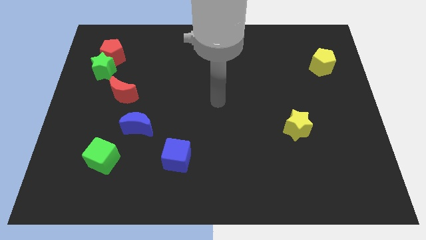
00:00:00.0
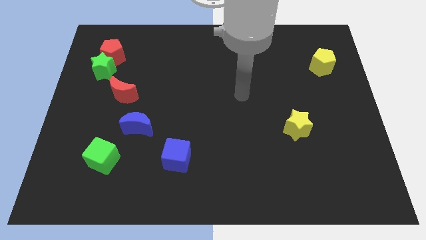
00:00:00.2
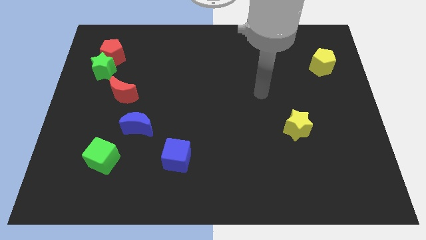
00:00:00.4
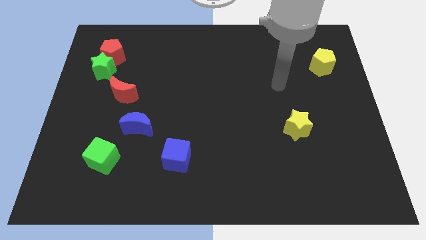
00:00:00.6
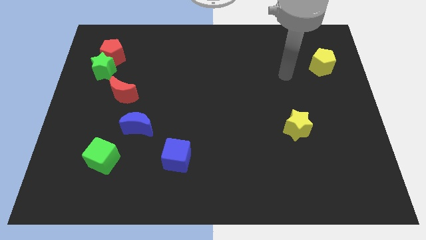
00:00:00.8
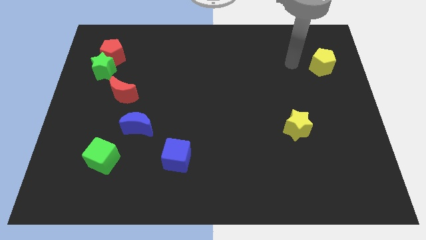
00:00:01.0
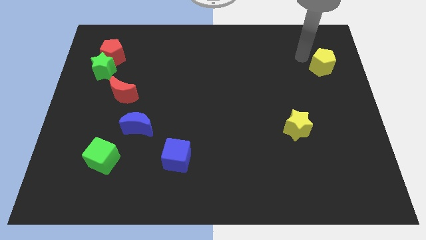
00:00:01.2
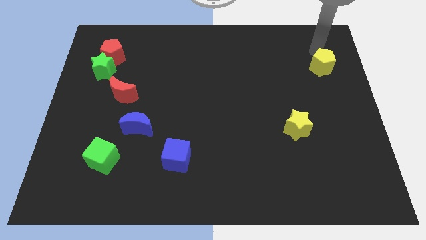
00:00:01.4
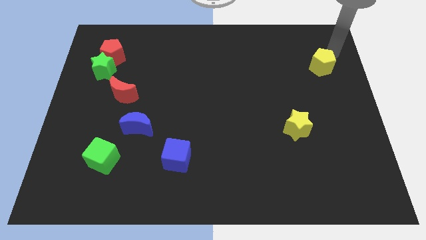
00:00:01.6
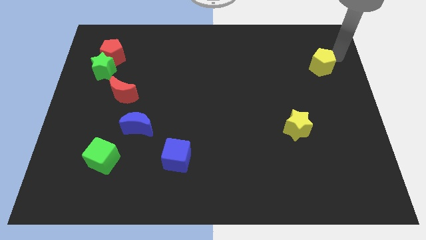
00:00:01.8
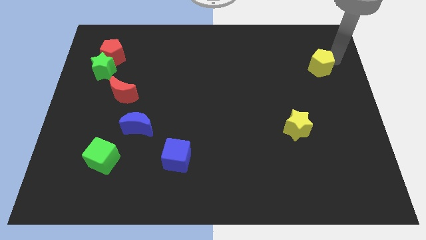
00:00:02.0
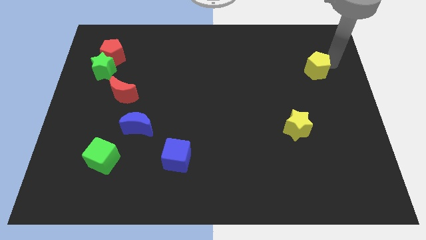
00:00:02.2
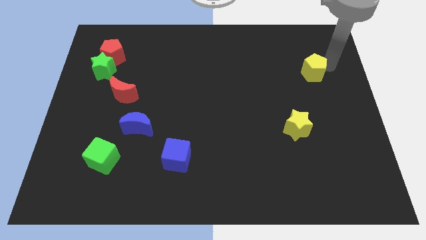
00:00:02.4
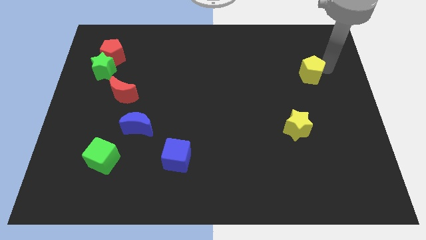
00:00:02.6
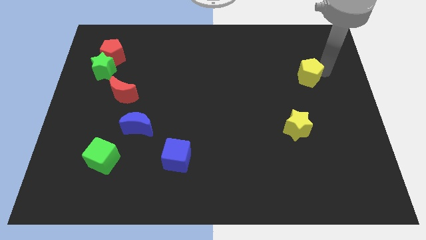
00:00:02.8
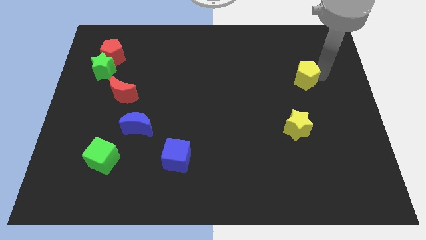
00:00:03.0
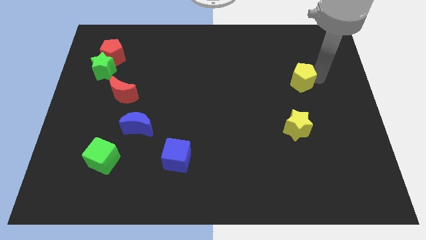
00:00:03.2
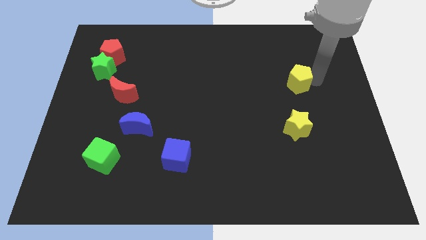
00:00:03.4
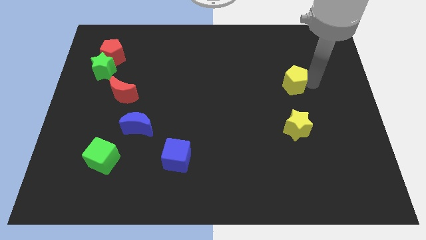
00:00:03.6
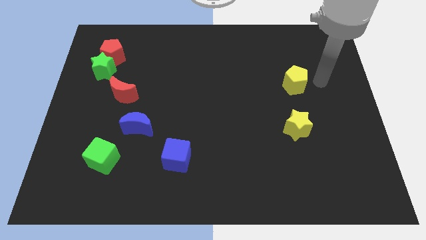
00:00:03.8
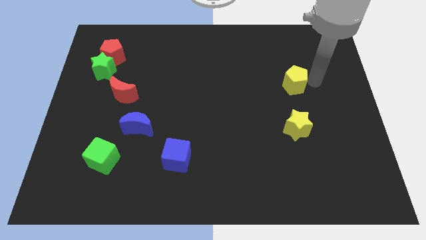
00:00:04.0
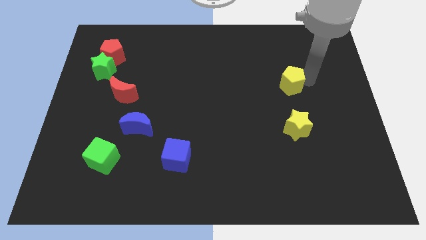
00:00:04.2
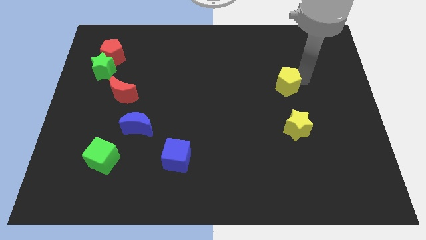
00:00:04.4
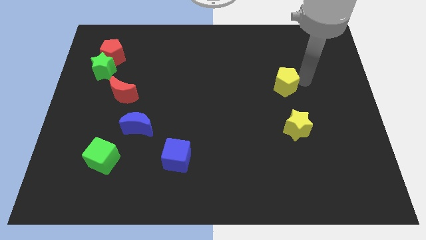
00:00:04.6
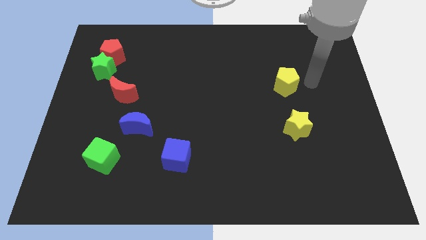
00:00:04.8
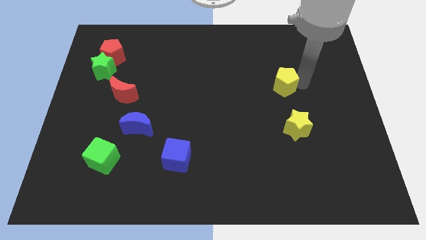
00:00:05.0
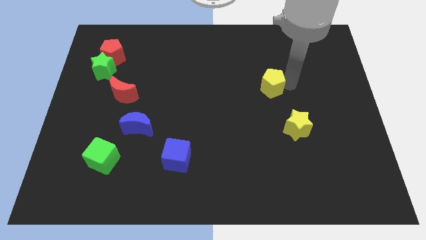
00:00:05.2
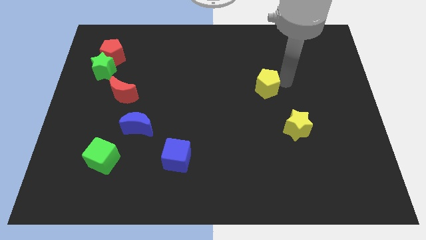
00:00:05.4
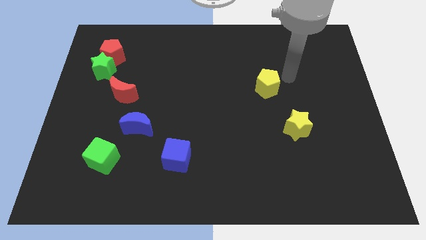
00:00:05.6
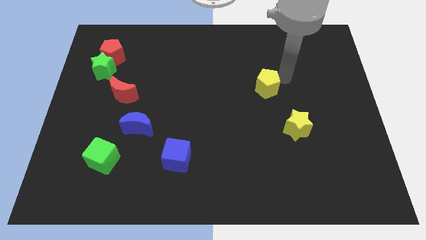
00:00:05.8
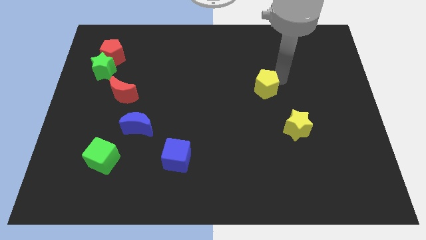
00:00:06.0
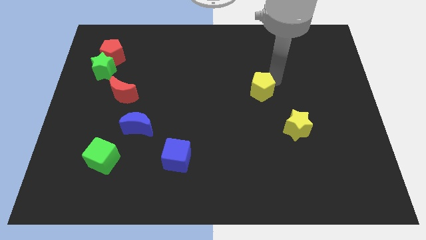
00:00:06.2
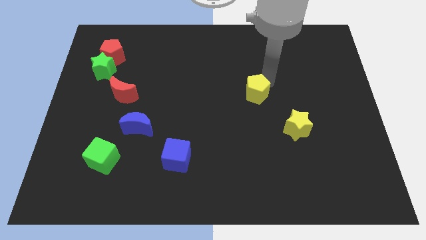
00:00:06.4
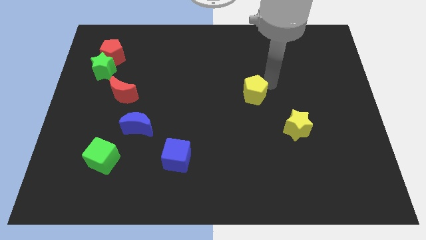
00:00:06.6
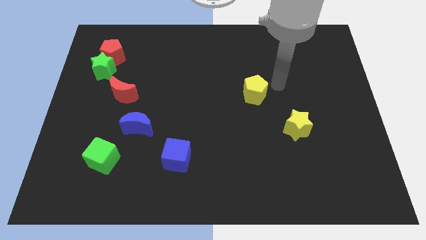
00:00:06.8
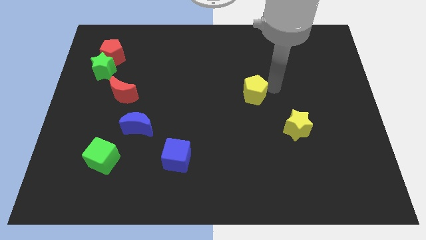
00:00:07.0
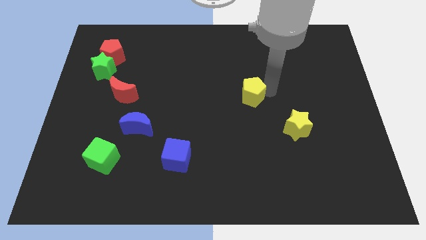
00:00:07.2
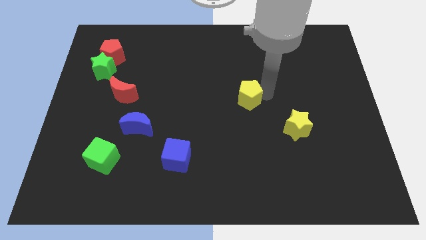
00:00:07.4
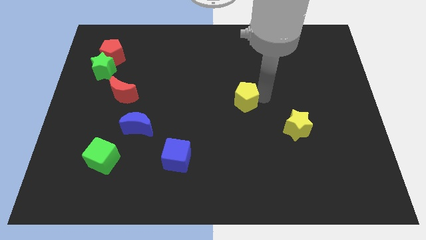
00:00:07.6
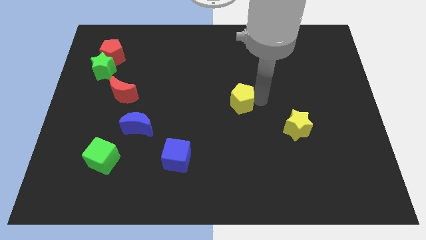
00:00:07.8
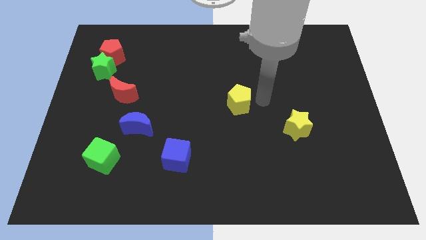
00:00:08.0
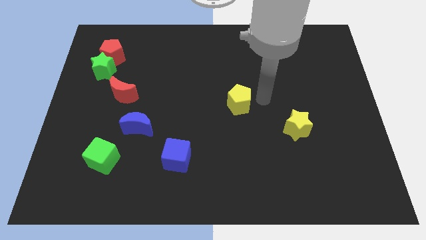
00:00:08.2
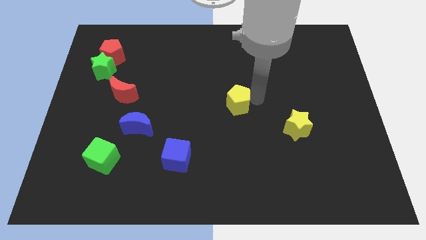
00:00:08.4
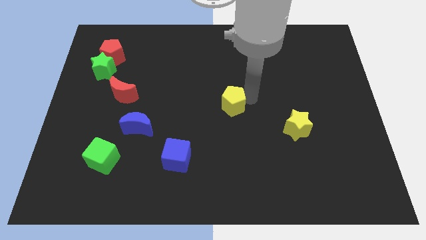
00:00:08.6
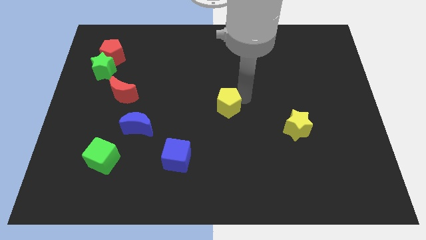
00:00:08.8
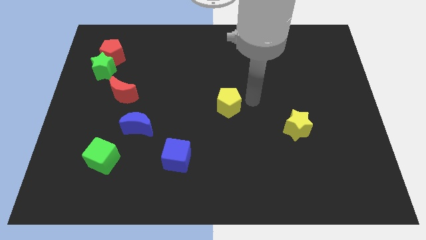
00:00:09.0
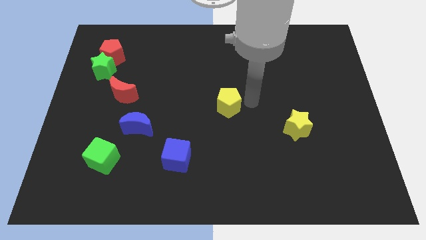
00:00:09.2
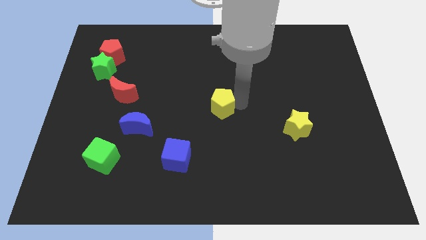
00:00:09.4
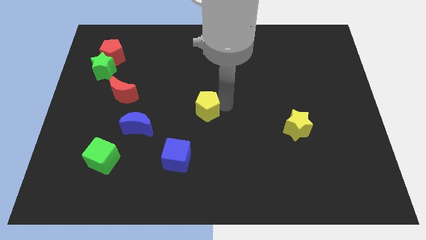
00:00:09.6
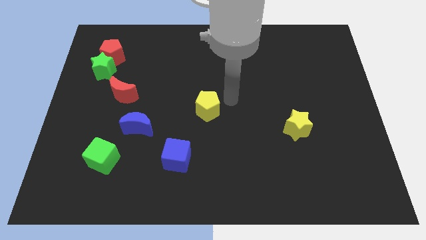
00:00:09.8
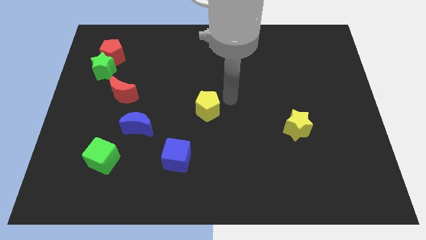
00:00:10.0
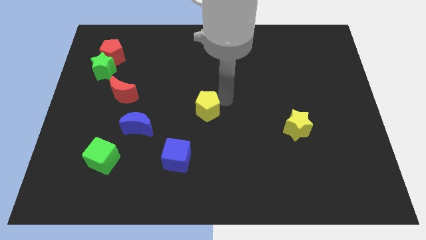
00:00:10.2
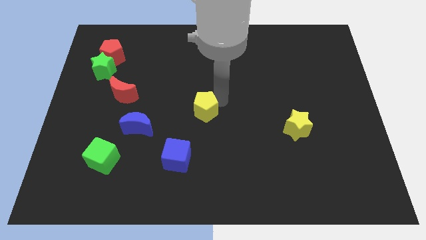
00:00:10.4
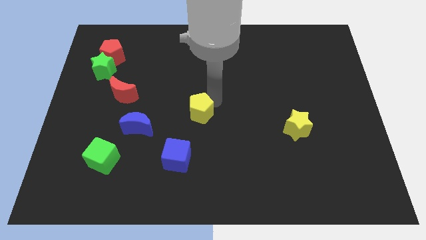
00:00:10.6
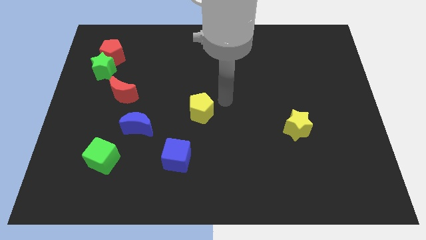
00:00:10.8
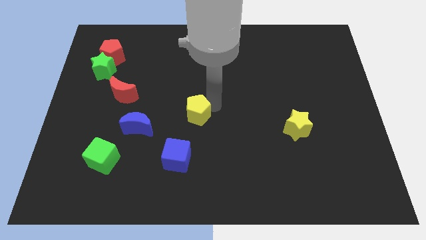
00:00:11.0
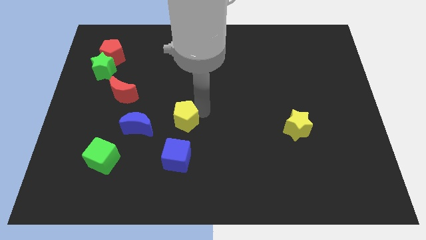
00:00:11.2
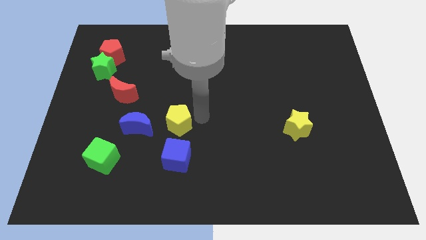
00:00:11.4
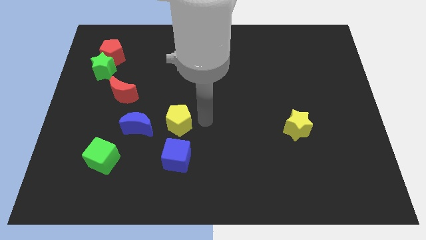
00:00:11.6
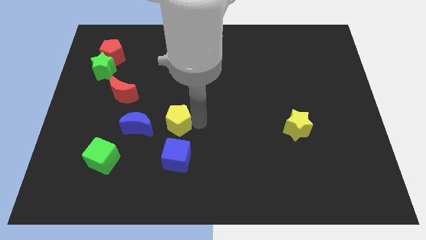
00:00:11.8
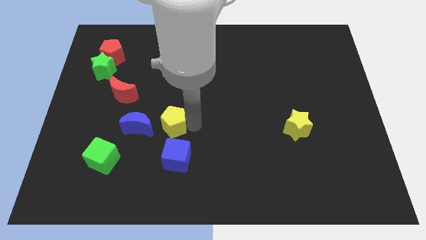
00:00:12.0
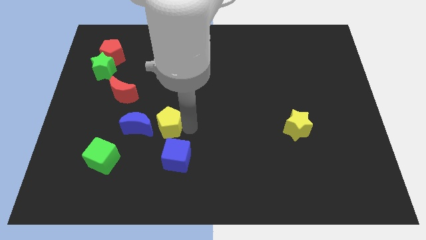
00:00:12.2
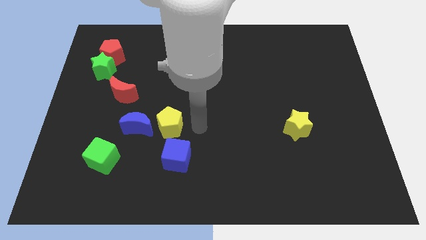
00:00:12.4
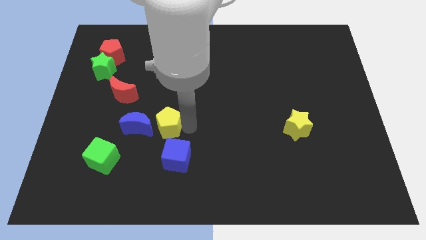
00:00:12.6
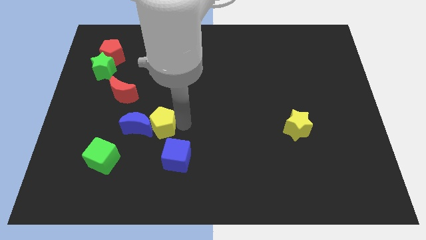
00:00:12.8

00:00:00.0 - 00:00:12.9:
move the yellow pentagon next to the blue moon
